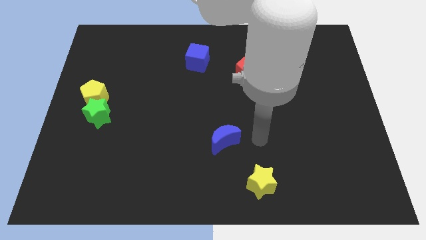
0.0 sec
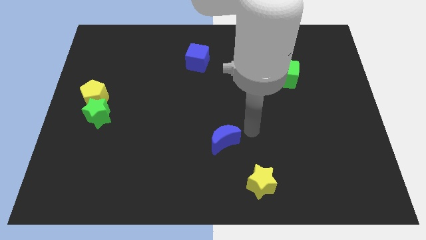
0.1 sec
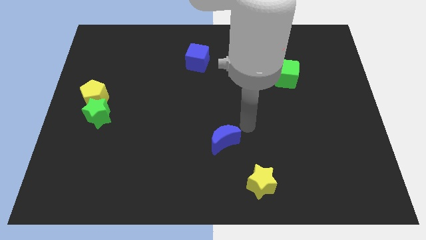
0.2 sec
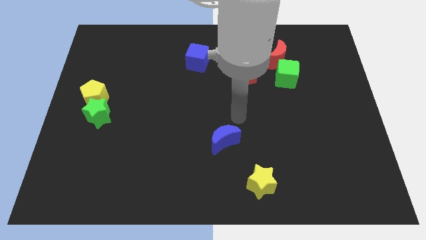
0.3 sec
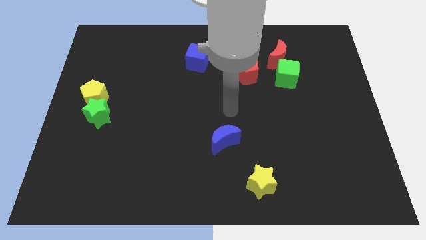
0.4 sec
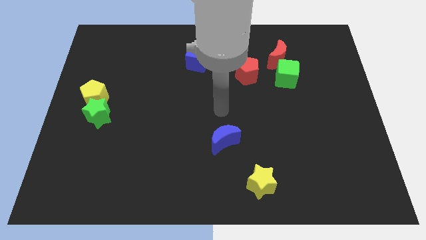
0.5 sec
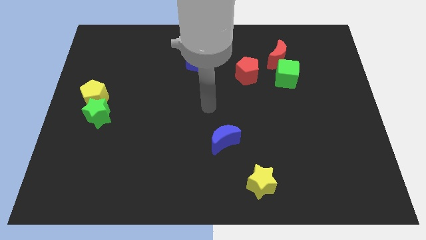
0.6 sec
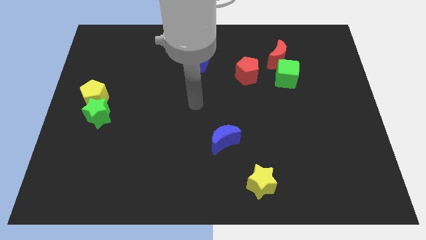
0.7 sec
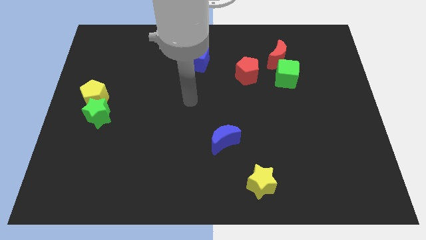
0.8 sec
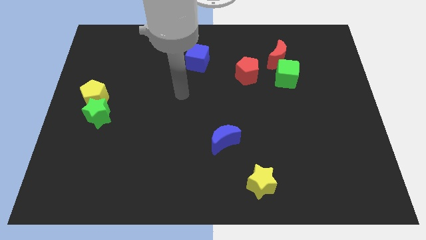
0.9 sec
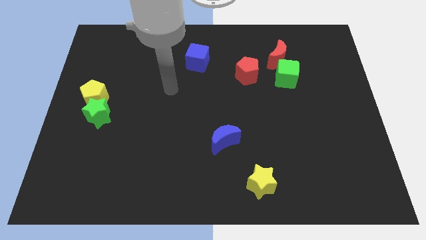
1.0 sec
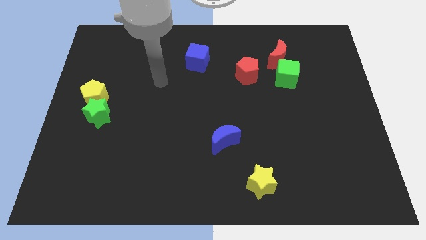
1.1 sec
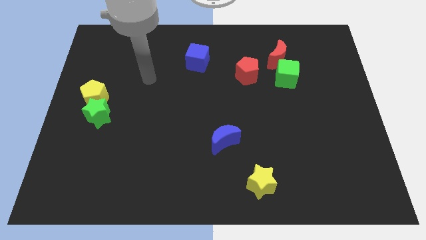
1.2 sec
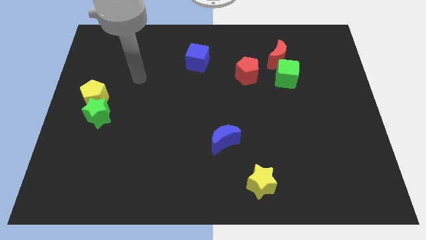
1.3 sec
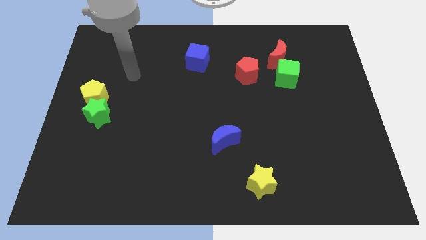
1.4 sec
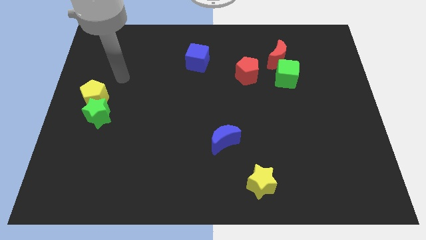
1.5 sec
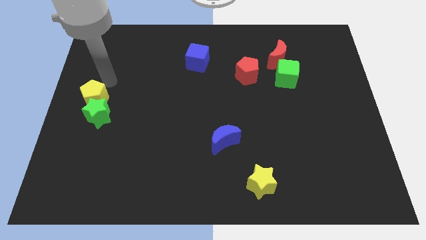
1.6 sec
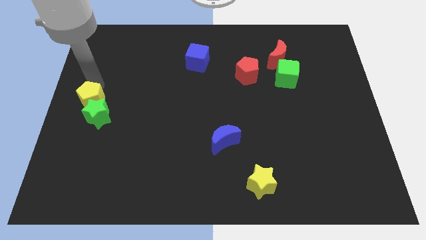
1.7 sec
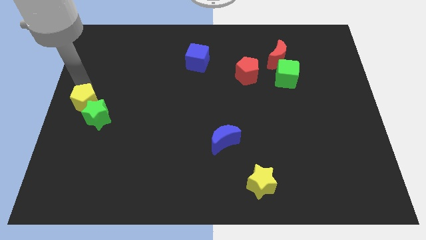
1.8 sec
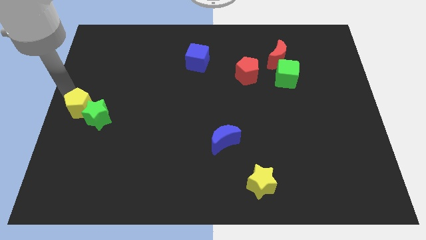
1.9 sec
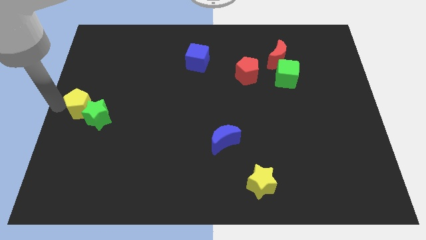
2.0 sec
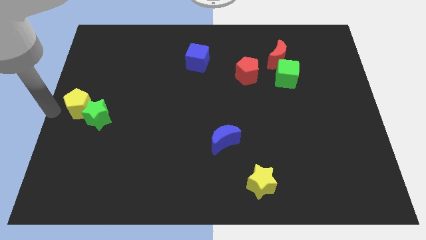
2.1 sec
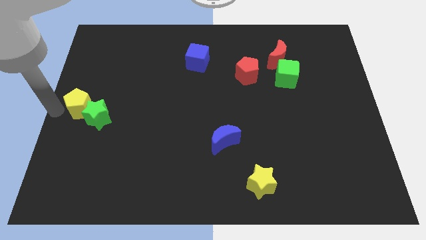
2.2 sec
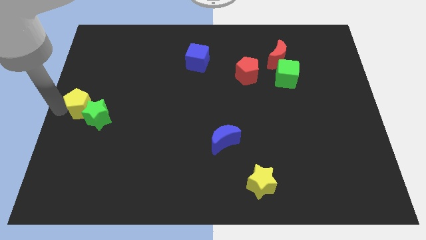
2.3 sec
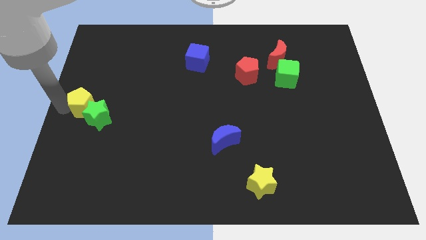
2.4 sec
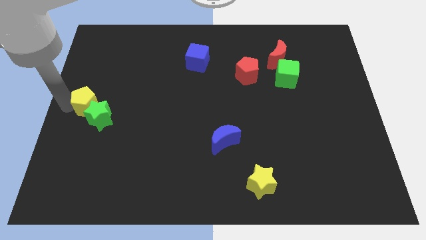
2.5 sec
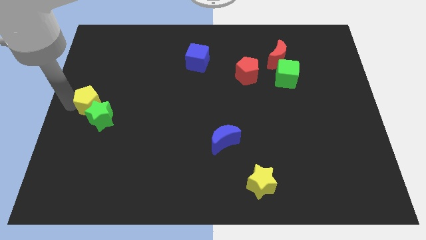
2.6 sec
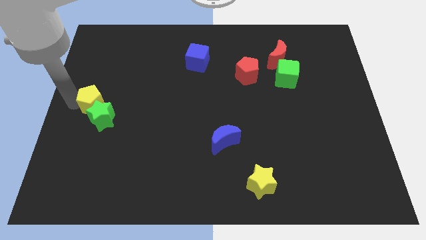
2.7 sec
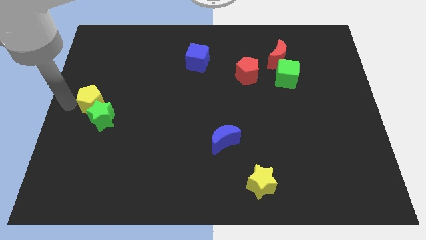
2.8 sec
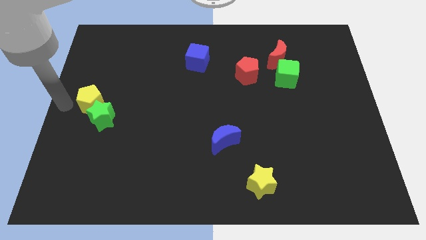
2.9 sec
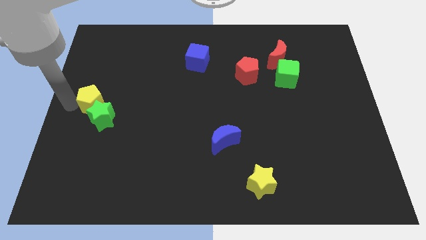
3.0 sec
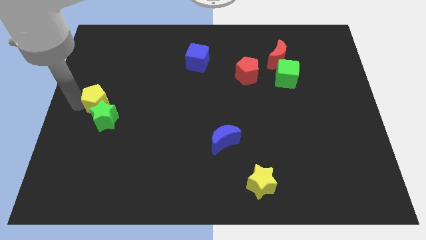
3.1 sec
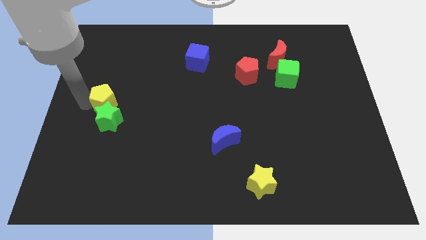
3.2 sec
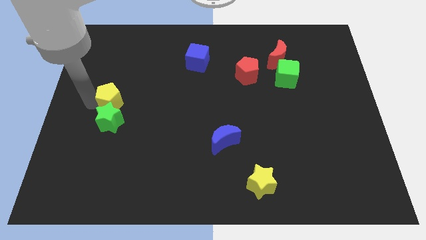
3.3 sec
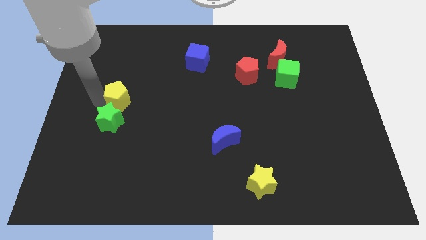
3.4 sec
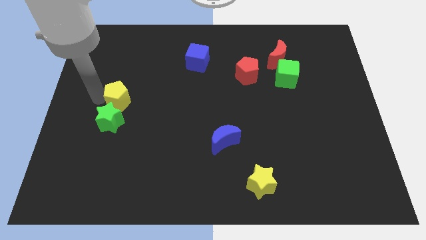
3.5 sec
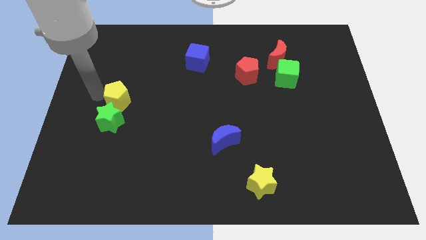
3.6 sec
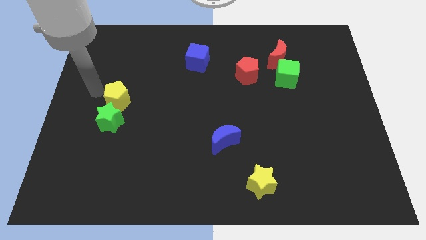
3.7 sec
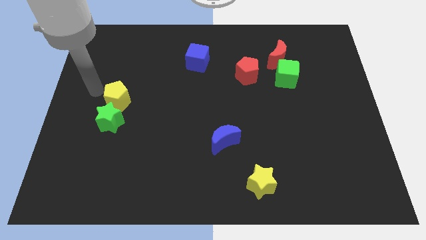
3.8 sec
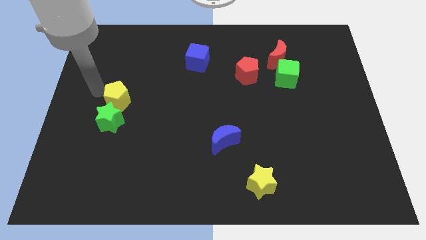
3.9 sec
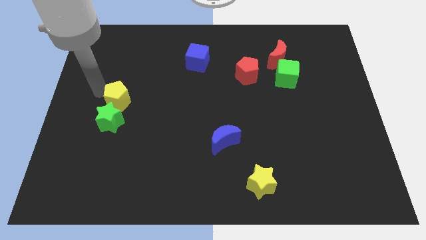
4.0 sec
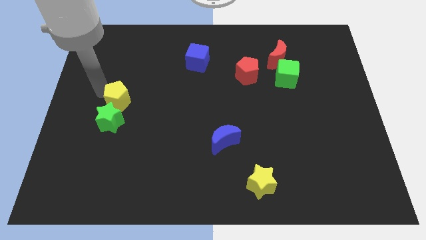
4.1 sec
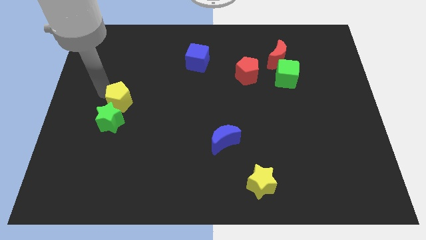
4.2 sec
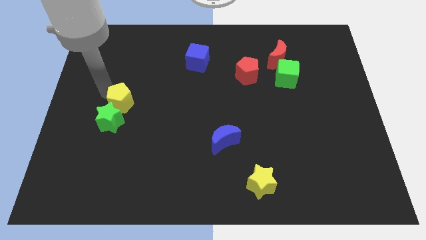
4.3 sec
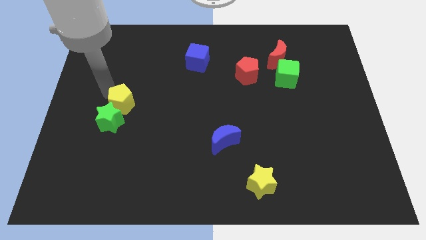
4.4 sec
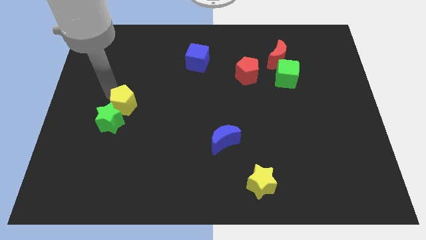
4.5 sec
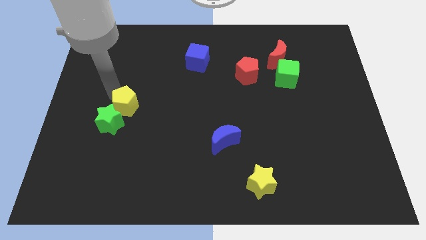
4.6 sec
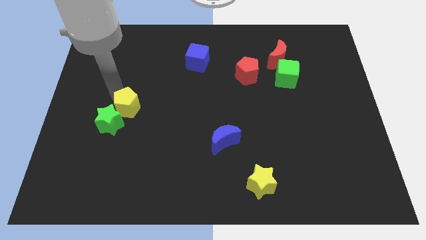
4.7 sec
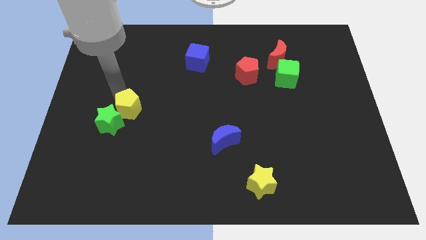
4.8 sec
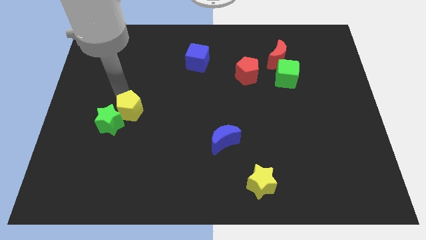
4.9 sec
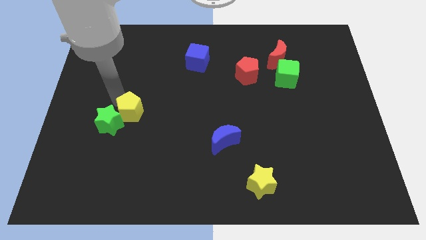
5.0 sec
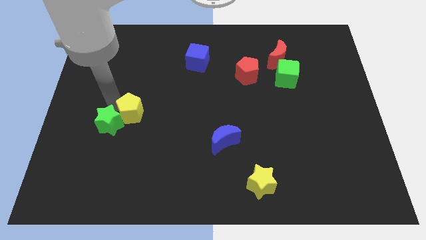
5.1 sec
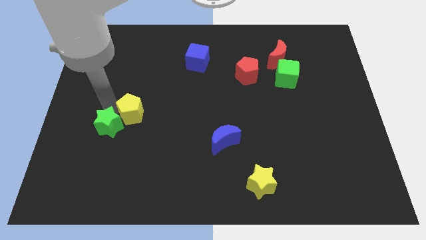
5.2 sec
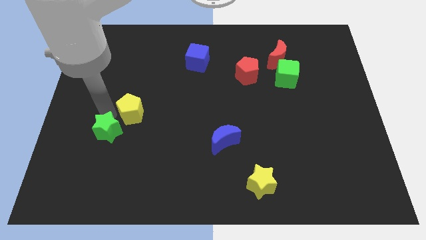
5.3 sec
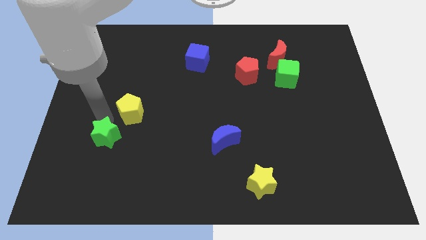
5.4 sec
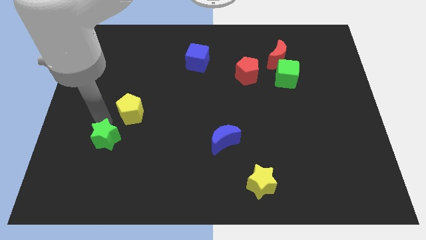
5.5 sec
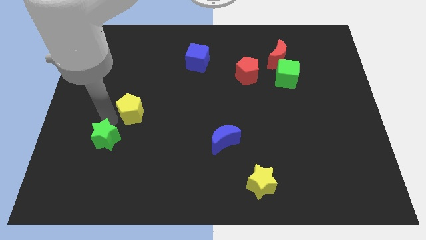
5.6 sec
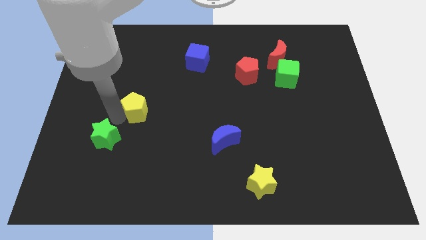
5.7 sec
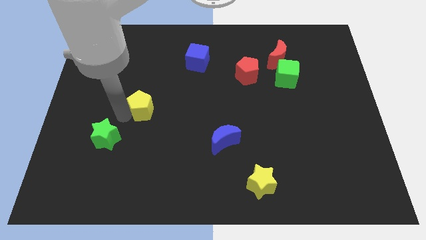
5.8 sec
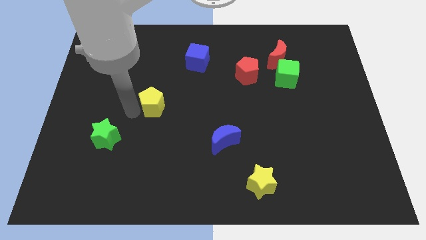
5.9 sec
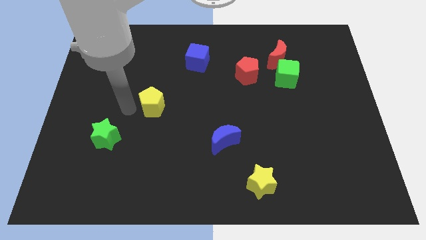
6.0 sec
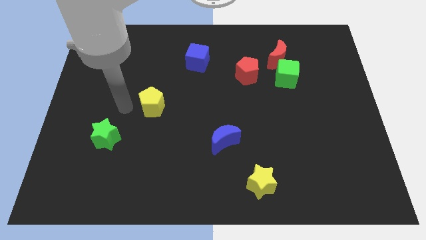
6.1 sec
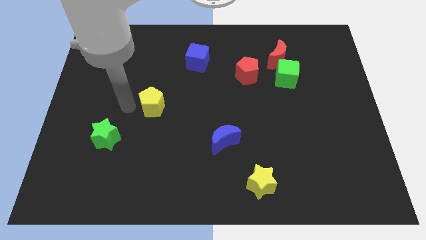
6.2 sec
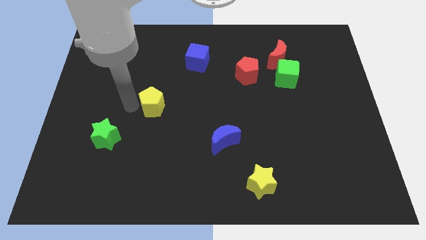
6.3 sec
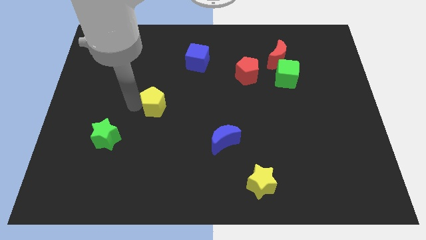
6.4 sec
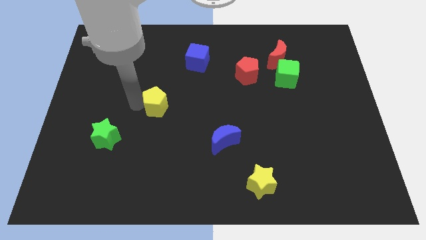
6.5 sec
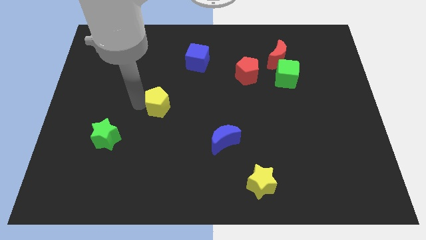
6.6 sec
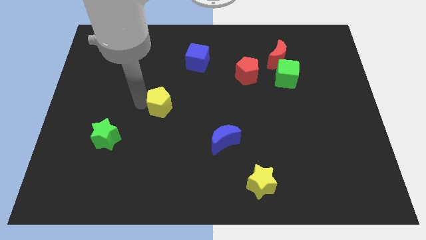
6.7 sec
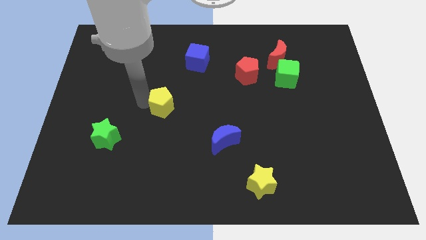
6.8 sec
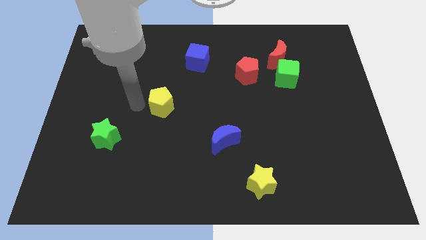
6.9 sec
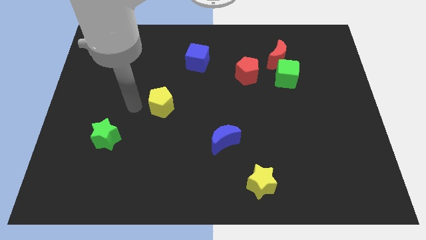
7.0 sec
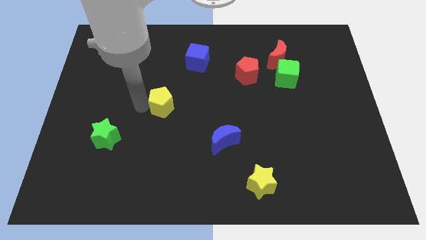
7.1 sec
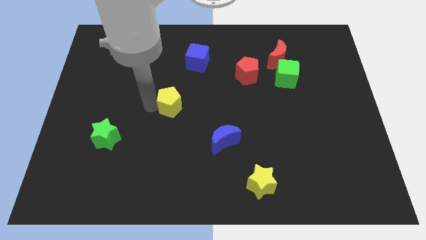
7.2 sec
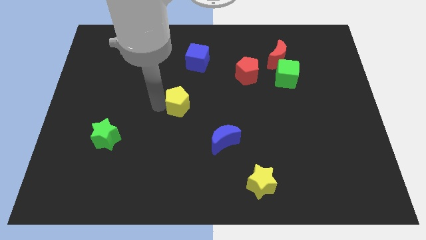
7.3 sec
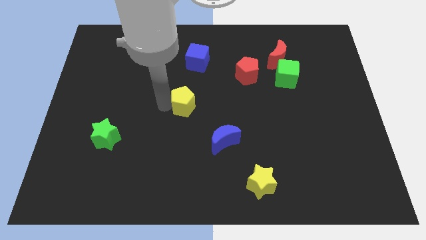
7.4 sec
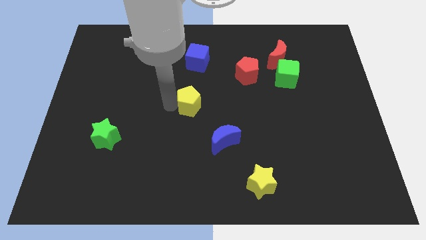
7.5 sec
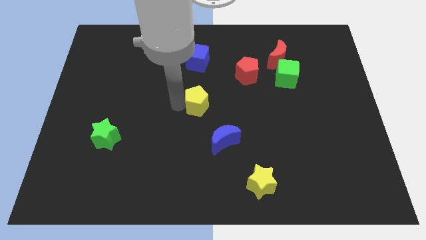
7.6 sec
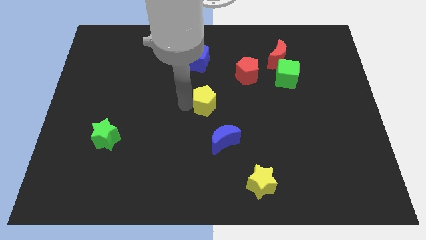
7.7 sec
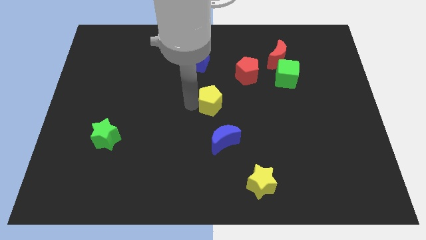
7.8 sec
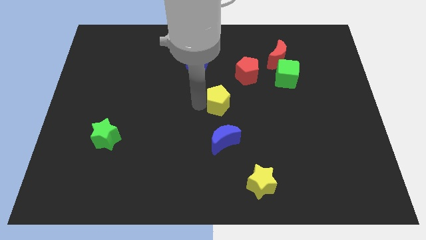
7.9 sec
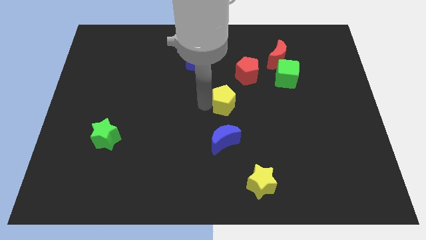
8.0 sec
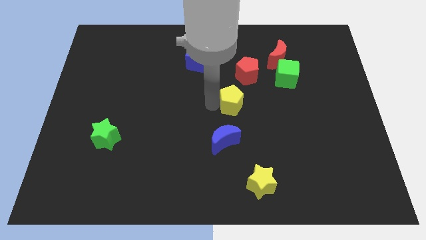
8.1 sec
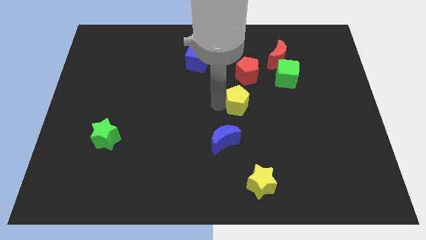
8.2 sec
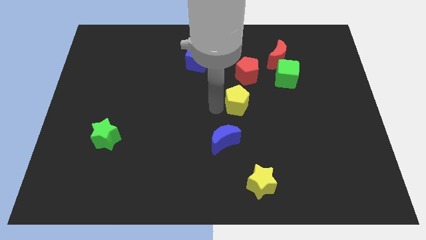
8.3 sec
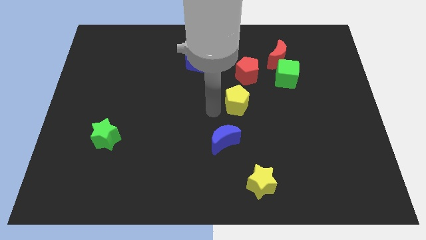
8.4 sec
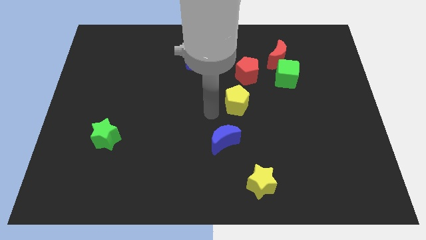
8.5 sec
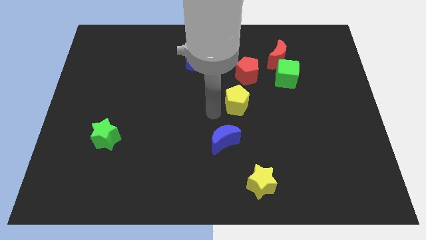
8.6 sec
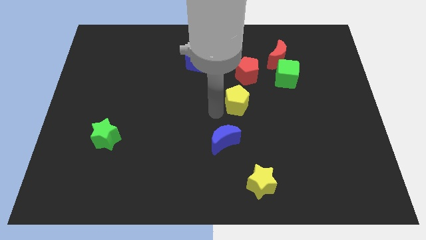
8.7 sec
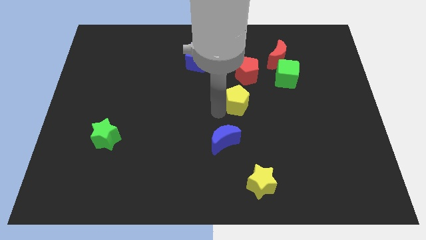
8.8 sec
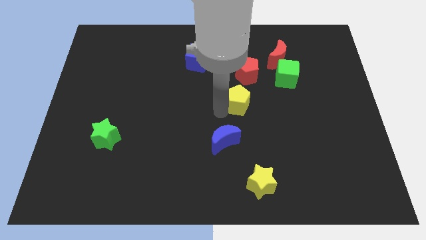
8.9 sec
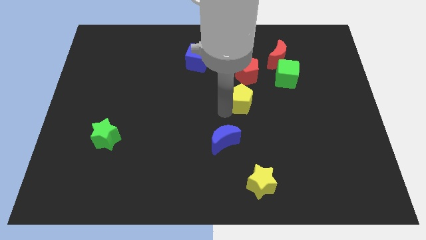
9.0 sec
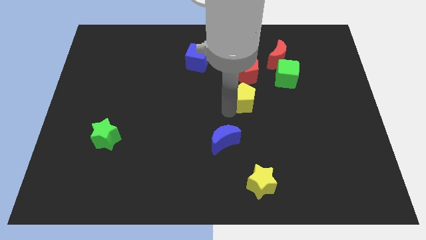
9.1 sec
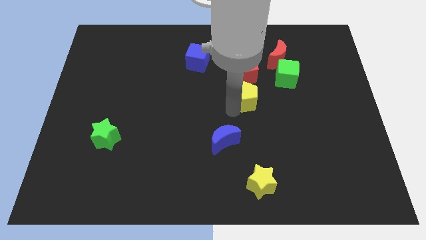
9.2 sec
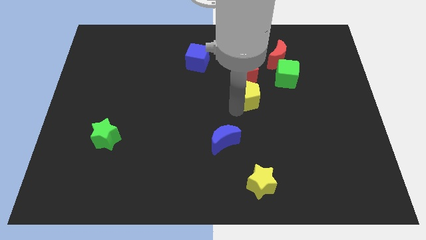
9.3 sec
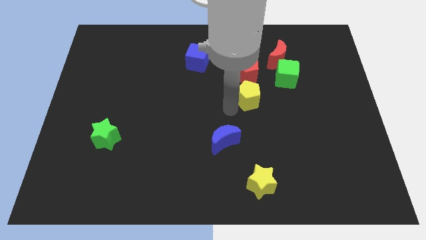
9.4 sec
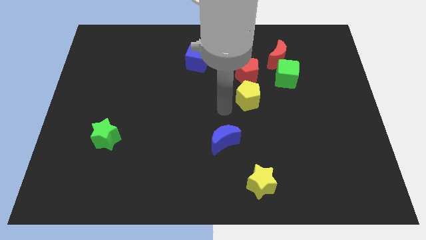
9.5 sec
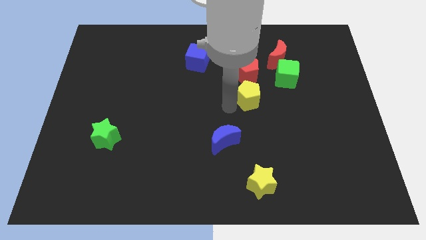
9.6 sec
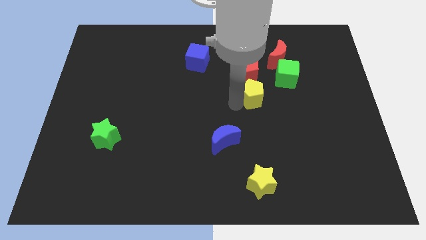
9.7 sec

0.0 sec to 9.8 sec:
push the yellow pentagon to the bottom right side of the red pentagon
